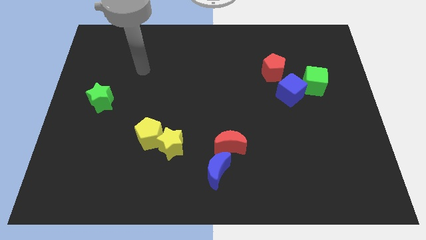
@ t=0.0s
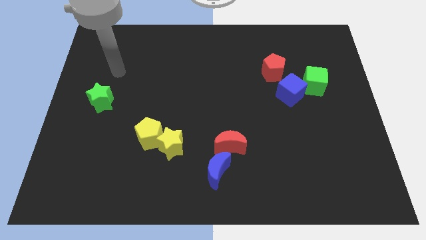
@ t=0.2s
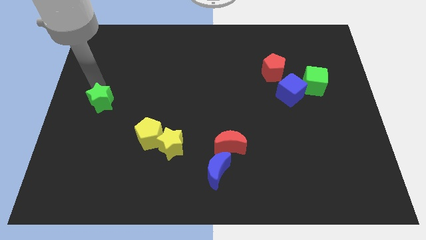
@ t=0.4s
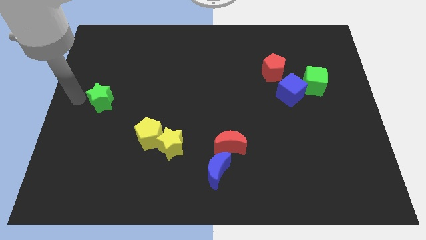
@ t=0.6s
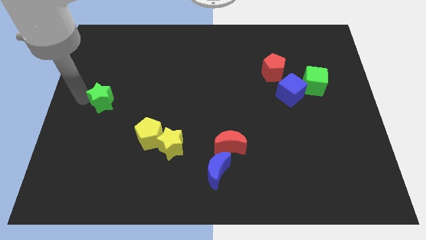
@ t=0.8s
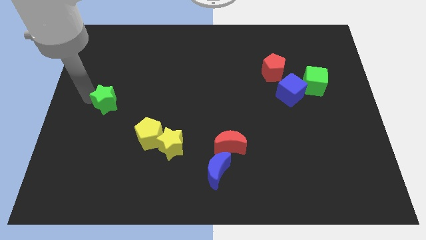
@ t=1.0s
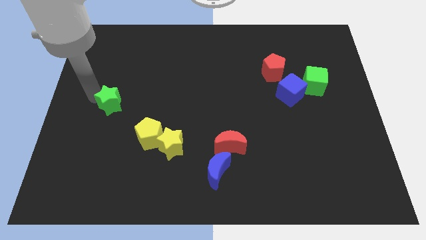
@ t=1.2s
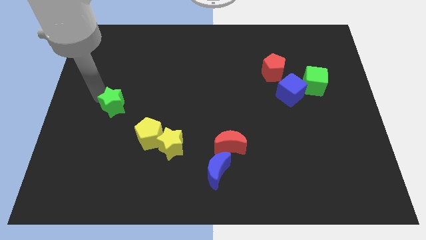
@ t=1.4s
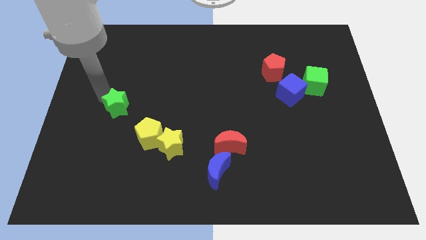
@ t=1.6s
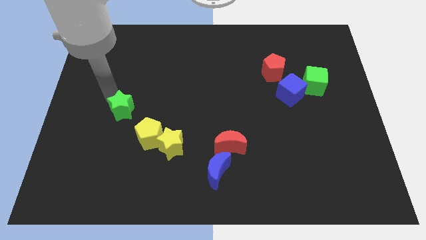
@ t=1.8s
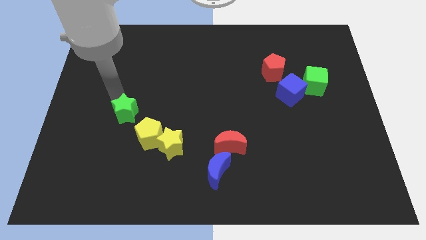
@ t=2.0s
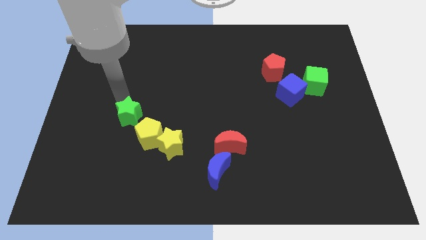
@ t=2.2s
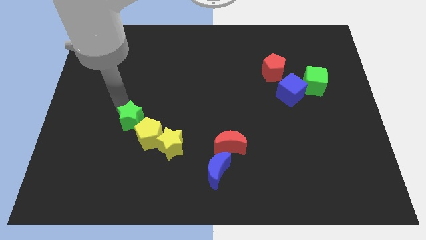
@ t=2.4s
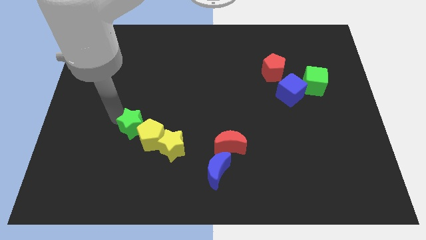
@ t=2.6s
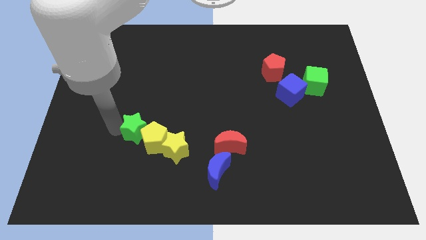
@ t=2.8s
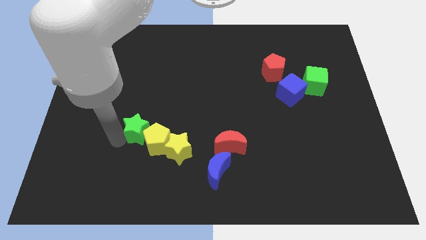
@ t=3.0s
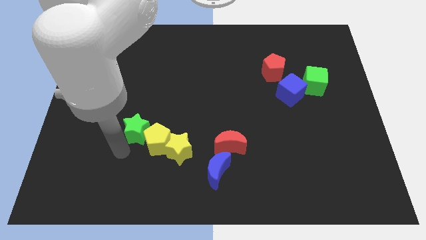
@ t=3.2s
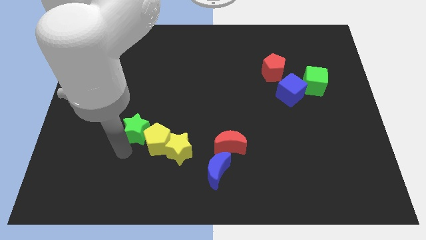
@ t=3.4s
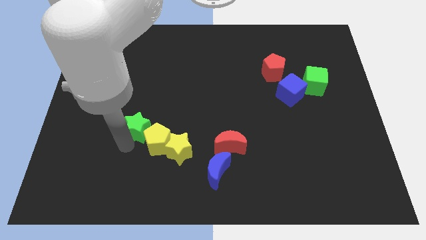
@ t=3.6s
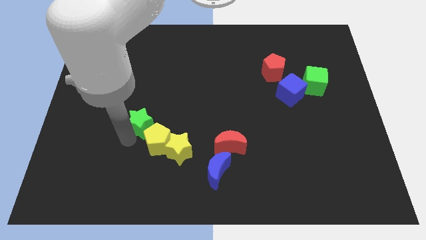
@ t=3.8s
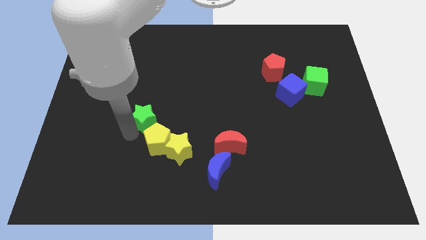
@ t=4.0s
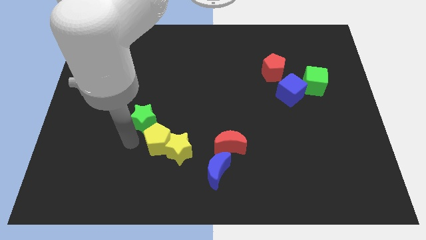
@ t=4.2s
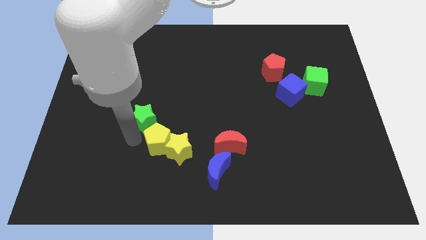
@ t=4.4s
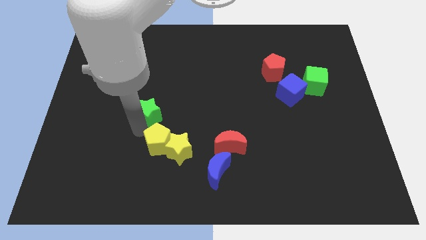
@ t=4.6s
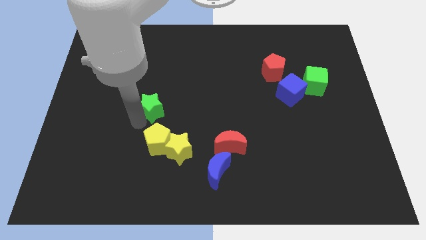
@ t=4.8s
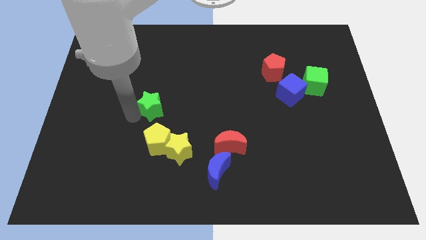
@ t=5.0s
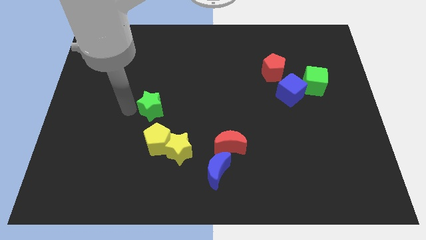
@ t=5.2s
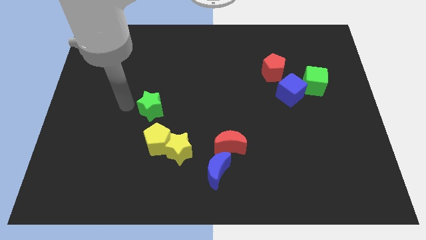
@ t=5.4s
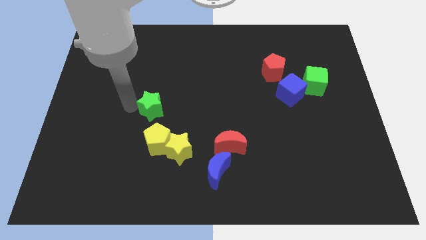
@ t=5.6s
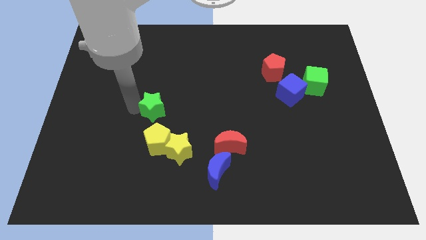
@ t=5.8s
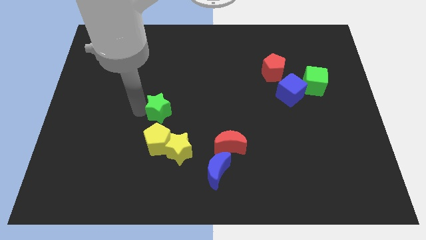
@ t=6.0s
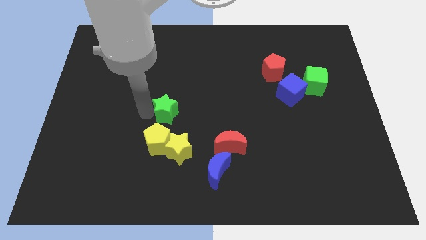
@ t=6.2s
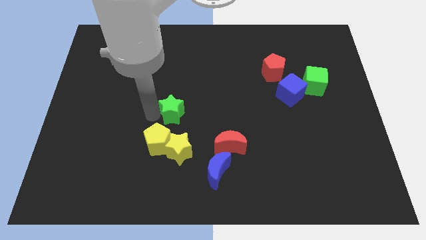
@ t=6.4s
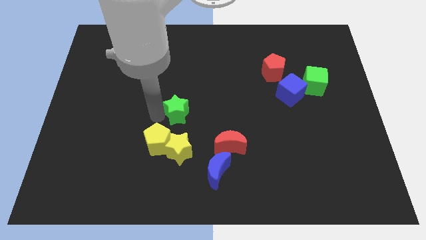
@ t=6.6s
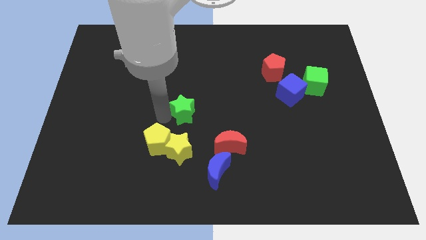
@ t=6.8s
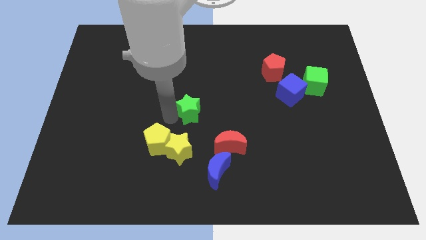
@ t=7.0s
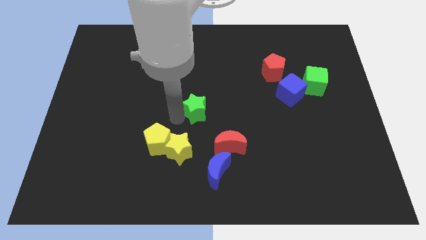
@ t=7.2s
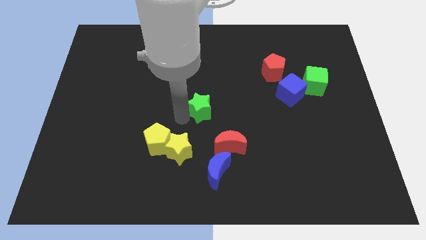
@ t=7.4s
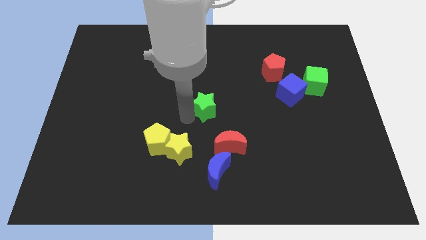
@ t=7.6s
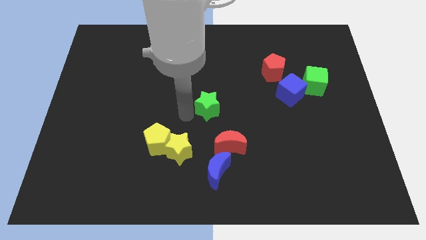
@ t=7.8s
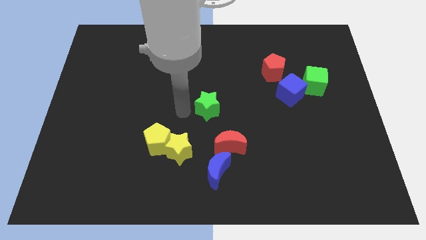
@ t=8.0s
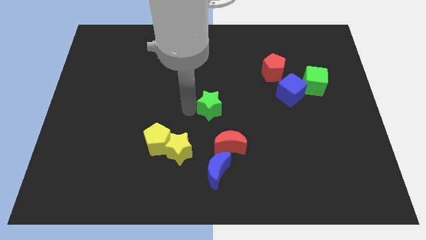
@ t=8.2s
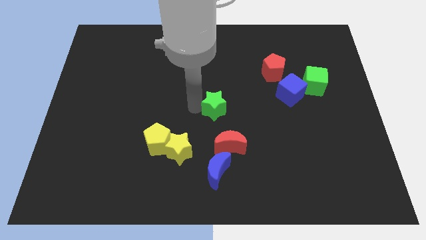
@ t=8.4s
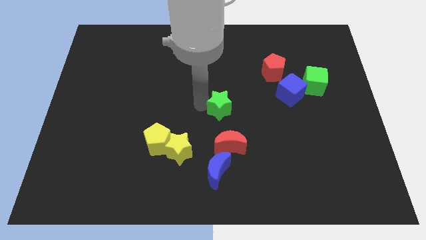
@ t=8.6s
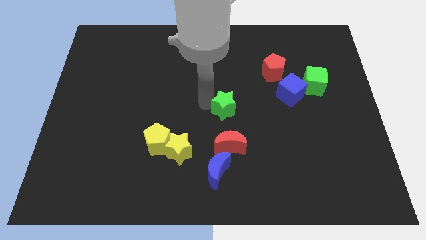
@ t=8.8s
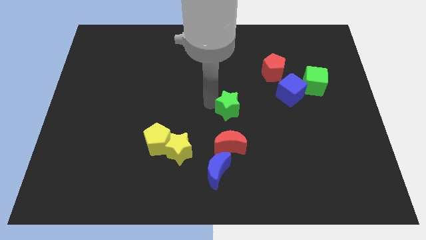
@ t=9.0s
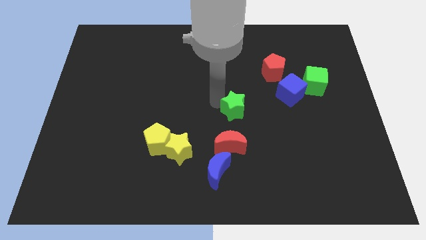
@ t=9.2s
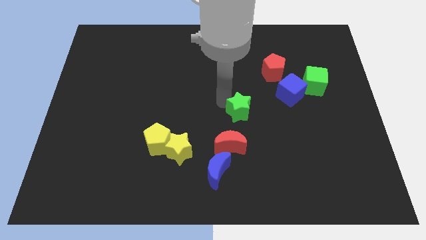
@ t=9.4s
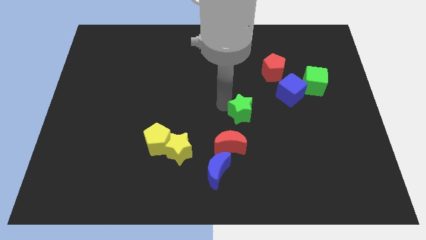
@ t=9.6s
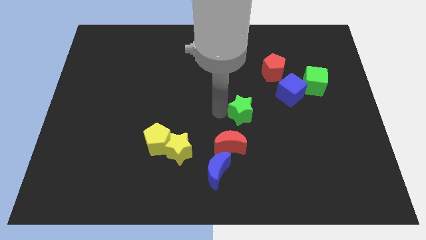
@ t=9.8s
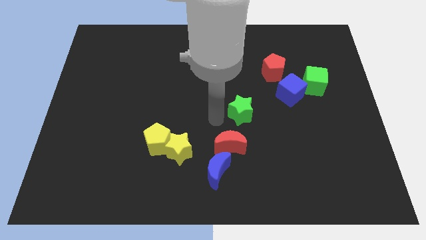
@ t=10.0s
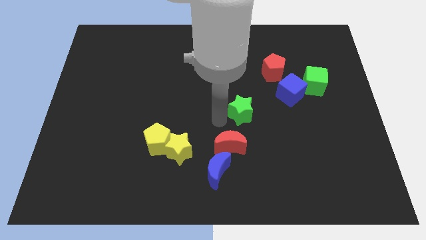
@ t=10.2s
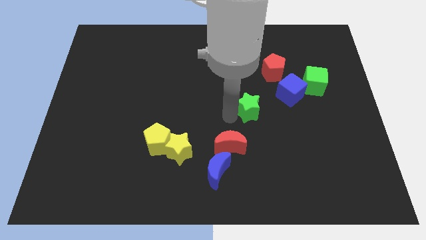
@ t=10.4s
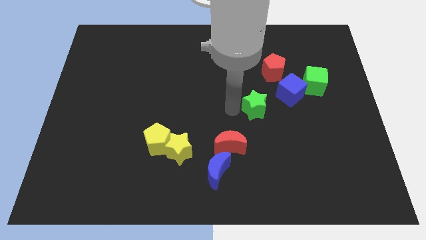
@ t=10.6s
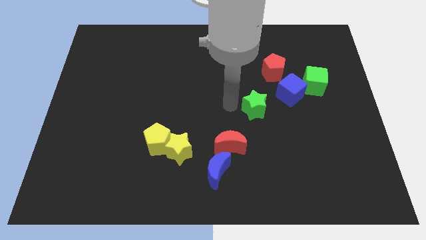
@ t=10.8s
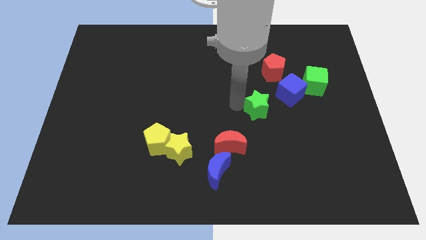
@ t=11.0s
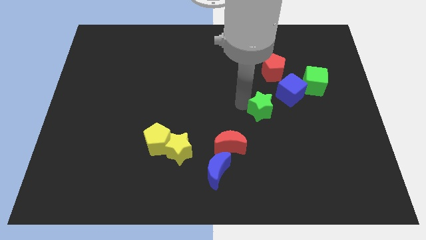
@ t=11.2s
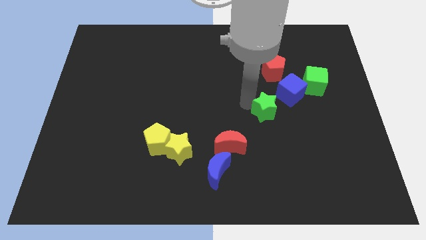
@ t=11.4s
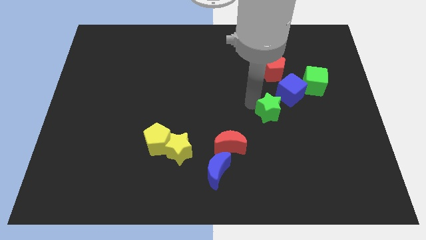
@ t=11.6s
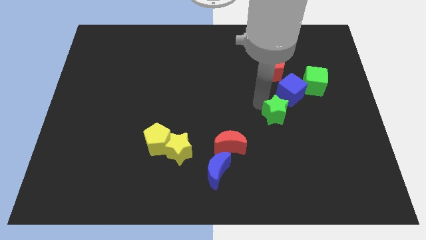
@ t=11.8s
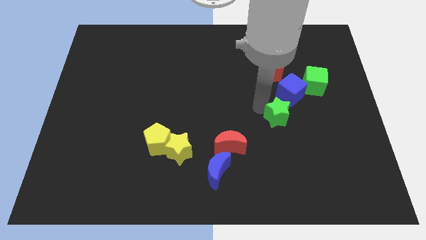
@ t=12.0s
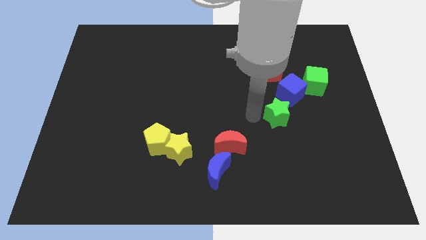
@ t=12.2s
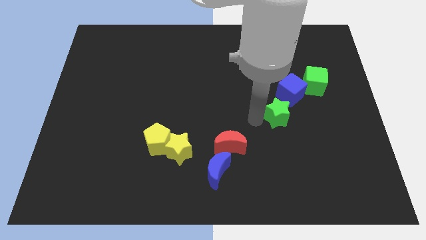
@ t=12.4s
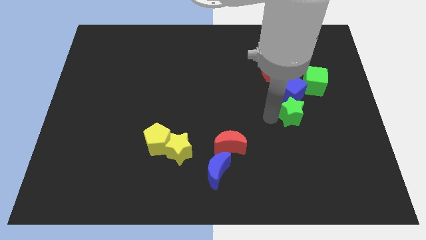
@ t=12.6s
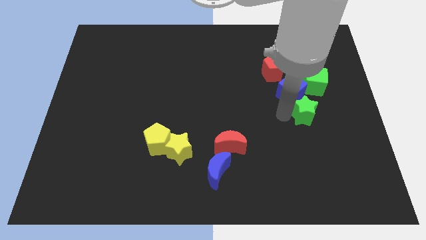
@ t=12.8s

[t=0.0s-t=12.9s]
push the green star below the green cube

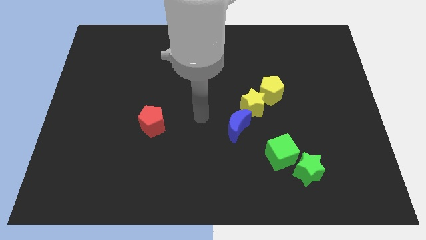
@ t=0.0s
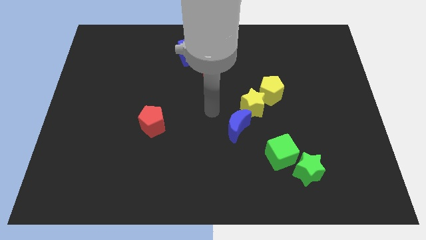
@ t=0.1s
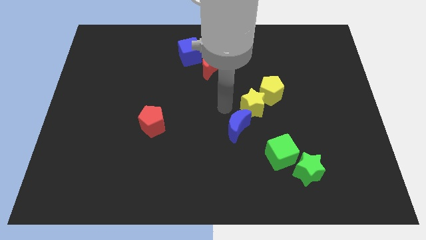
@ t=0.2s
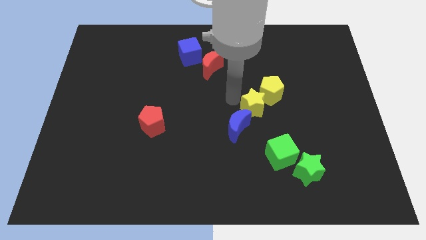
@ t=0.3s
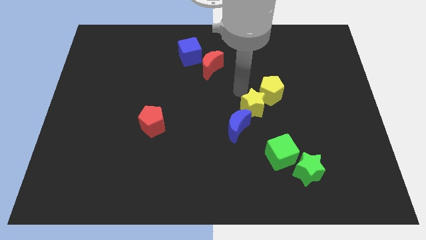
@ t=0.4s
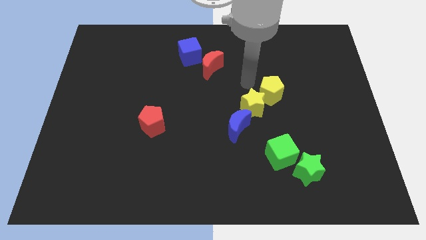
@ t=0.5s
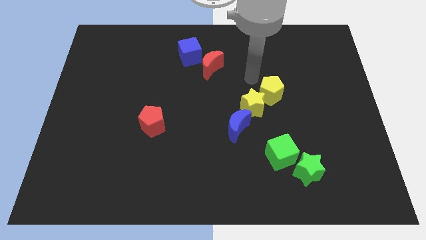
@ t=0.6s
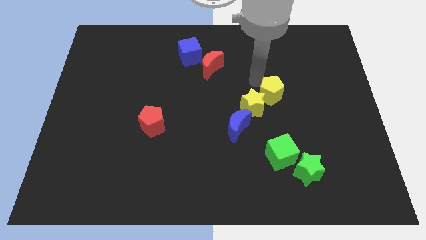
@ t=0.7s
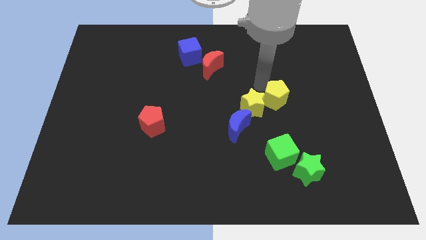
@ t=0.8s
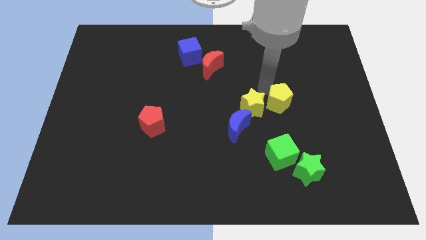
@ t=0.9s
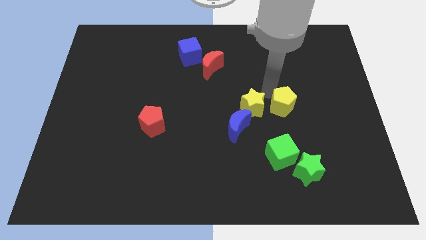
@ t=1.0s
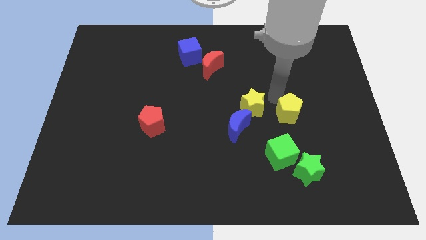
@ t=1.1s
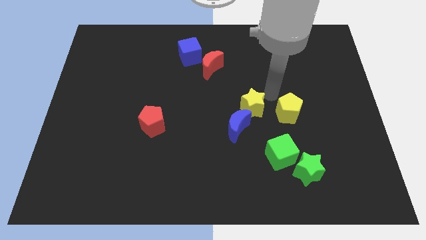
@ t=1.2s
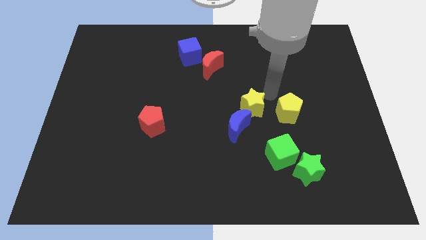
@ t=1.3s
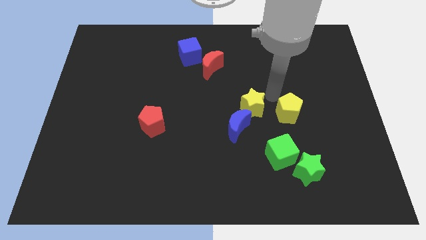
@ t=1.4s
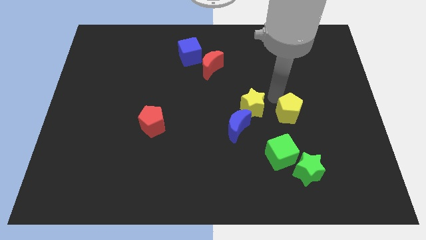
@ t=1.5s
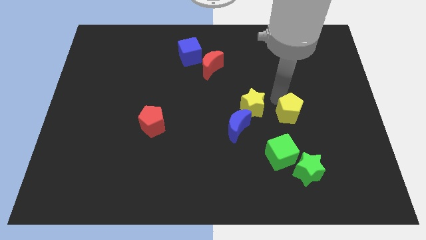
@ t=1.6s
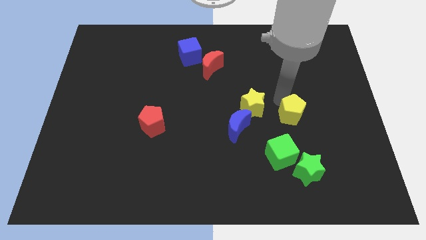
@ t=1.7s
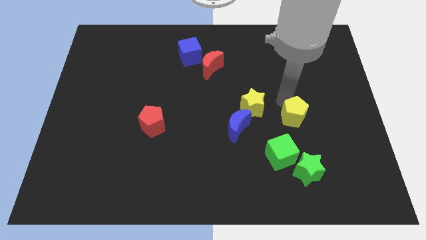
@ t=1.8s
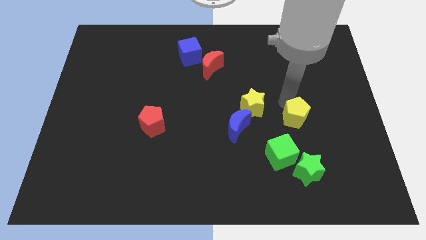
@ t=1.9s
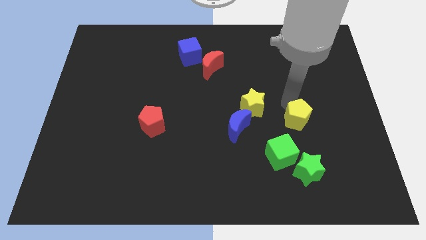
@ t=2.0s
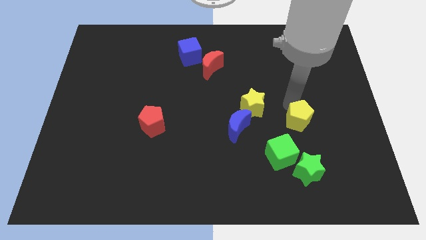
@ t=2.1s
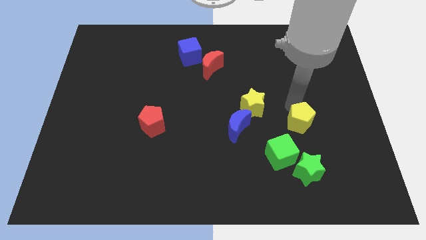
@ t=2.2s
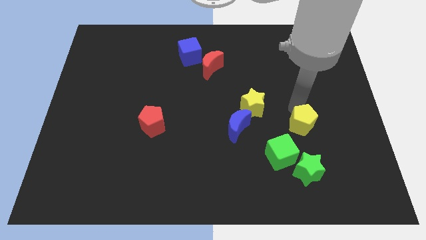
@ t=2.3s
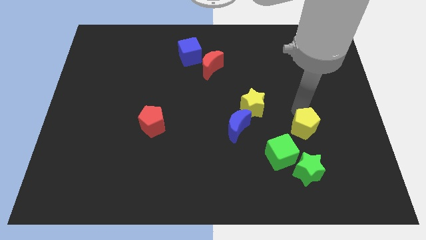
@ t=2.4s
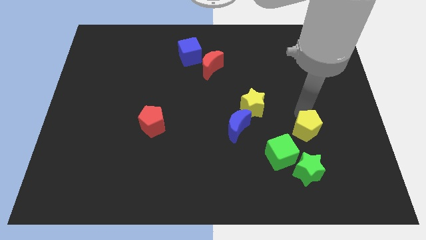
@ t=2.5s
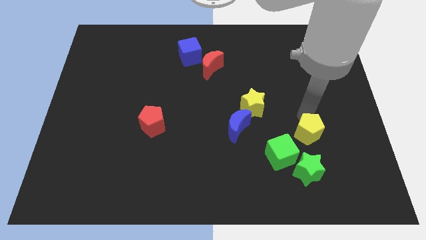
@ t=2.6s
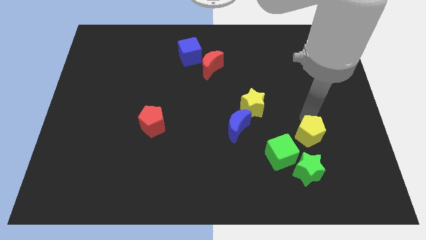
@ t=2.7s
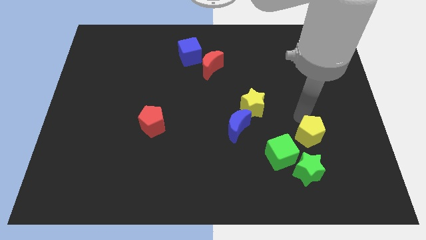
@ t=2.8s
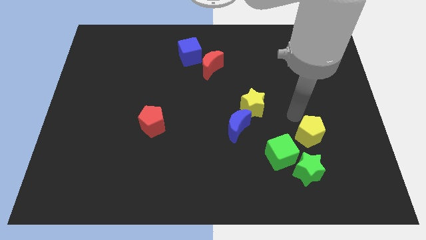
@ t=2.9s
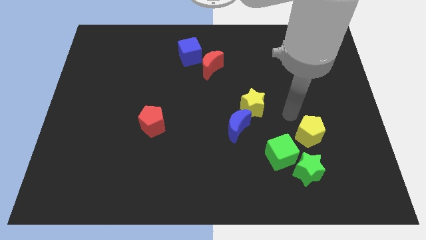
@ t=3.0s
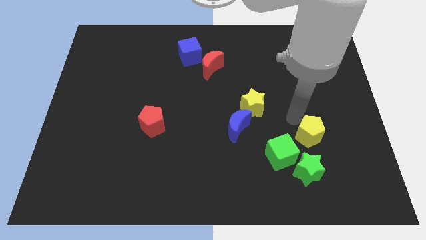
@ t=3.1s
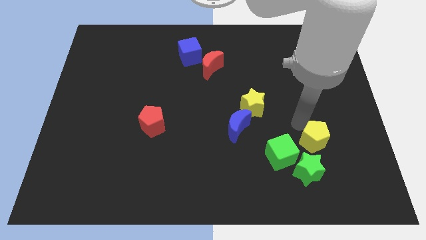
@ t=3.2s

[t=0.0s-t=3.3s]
slide the yellow pentagon to the right of the green cube
